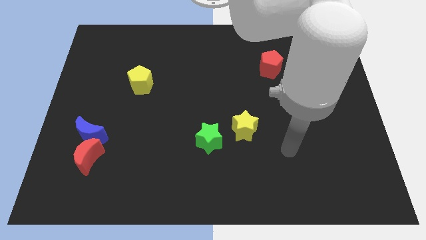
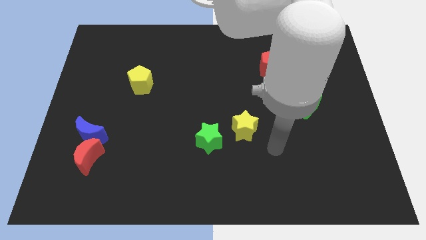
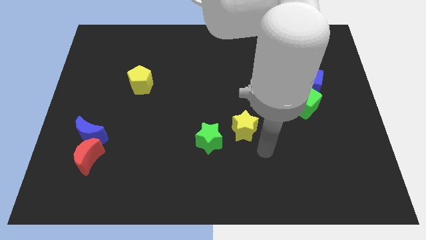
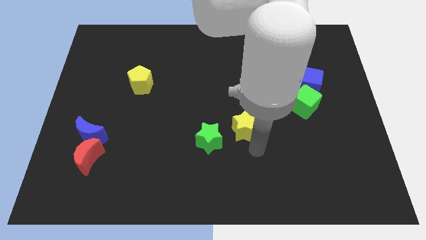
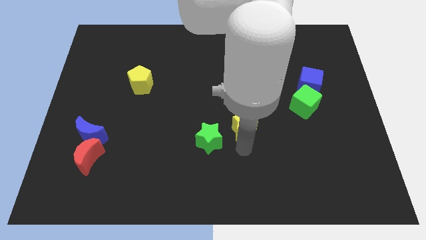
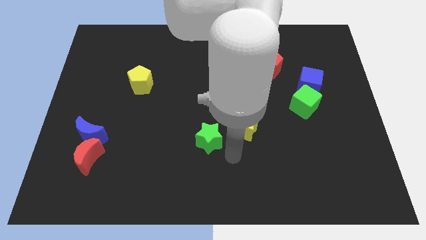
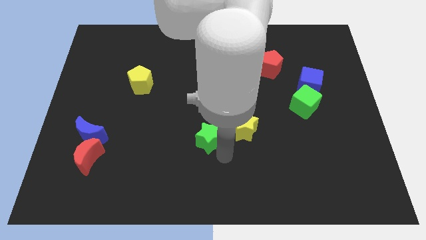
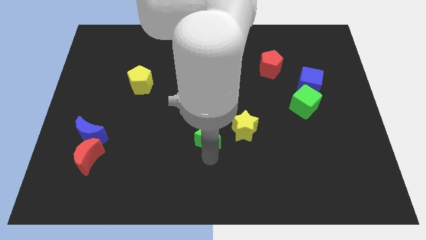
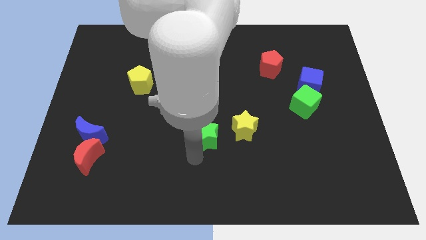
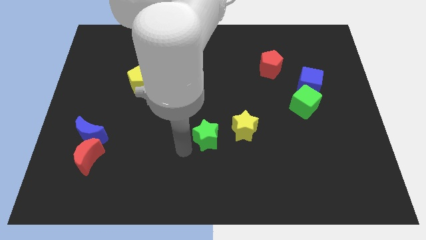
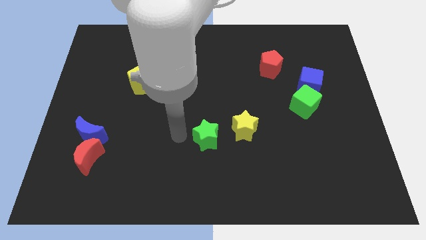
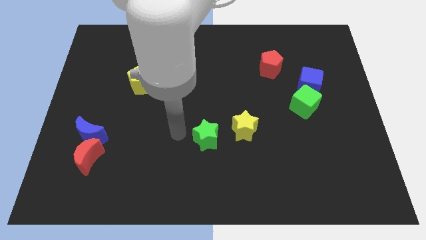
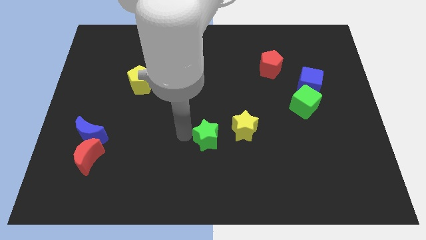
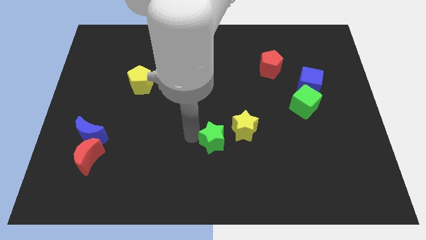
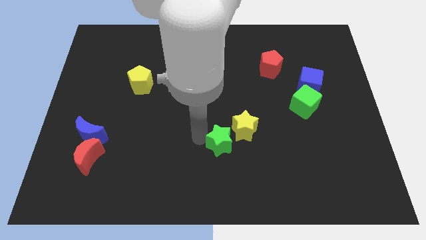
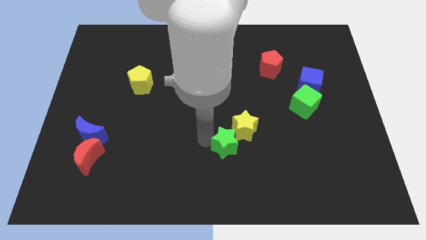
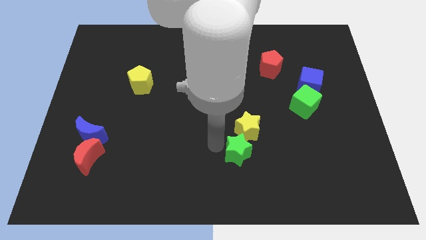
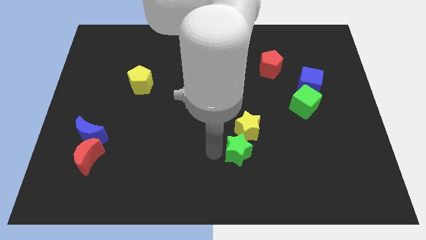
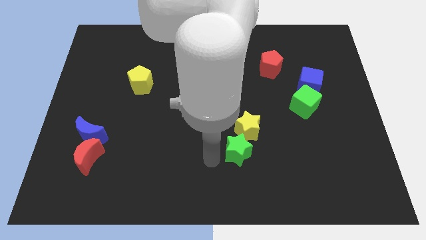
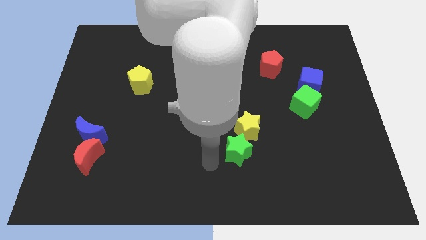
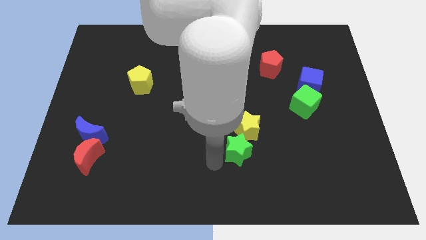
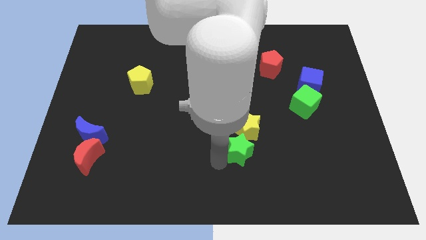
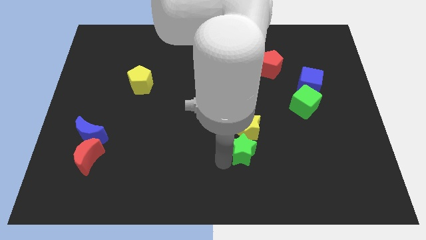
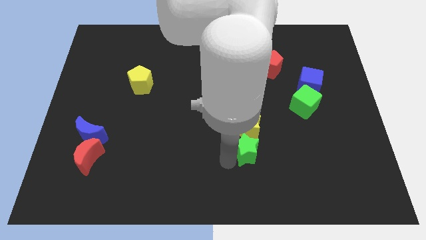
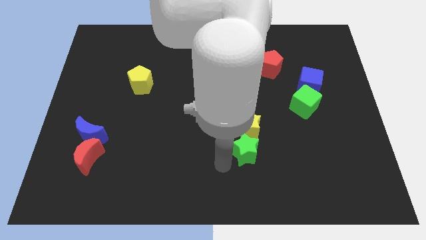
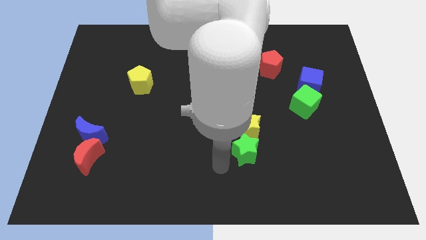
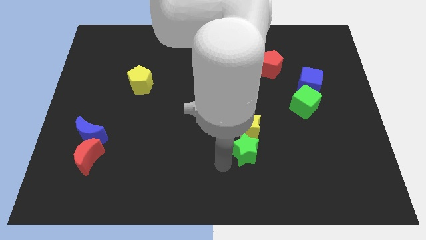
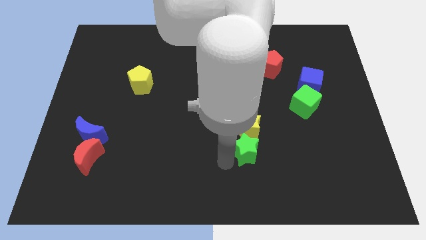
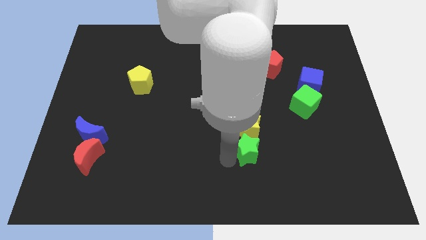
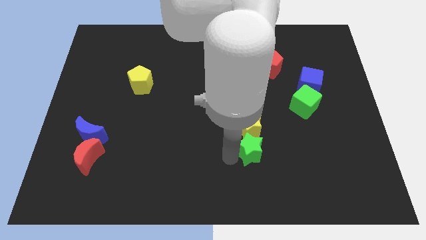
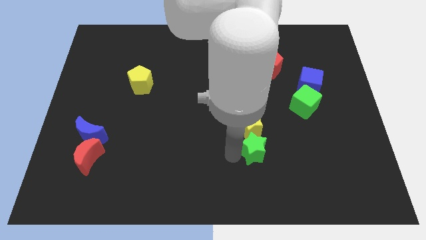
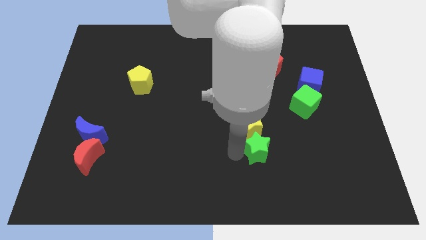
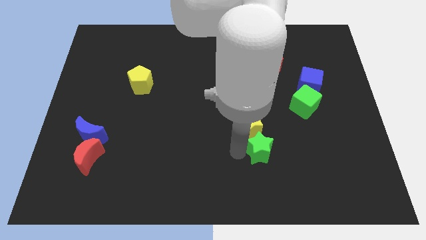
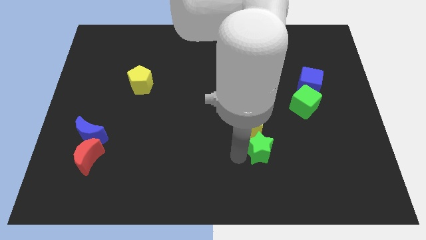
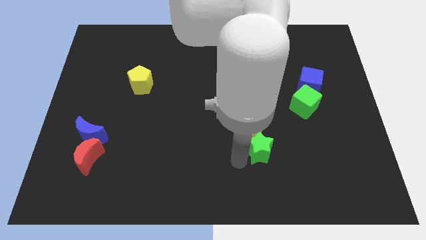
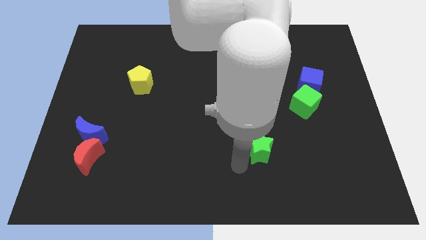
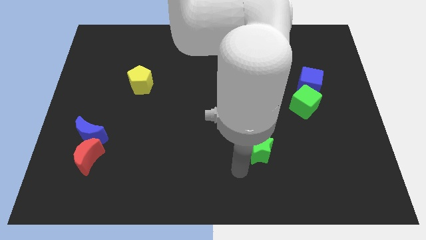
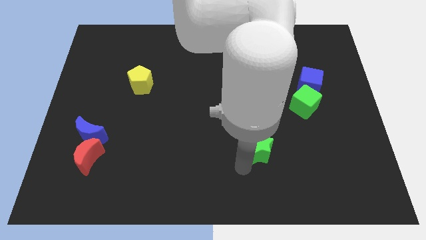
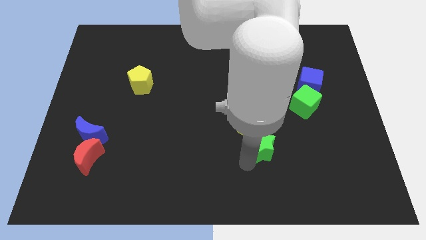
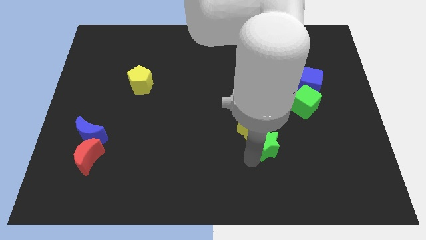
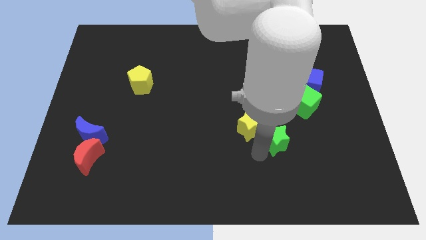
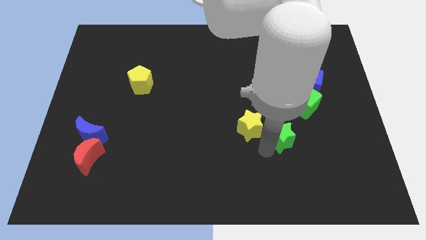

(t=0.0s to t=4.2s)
move the green star diagonally down and to the left of the green cube

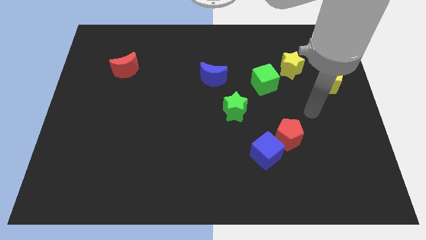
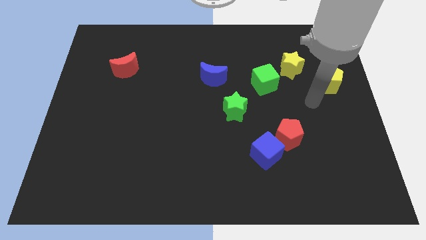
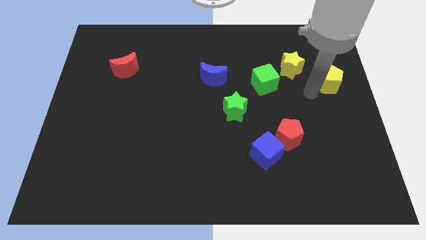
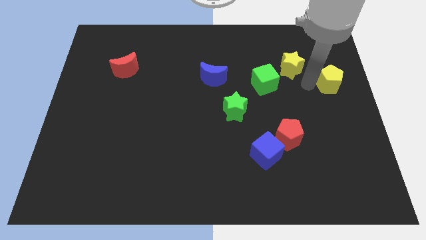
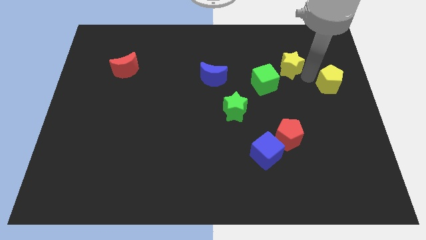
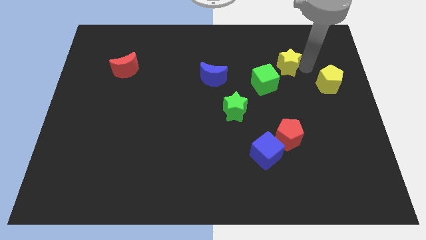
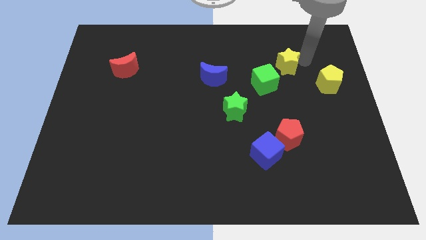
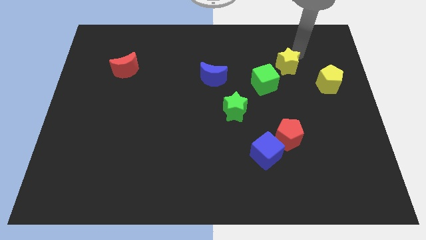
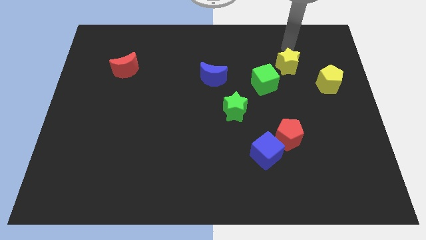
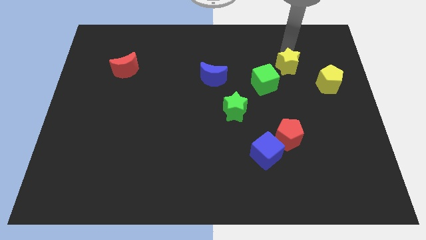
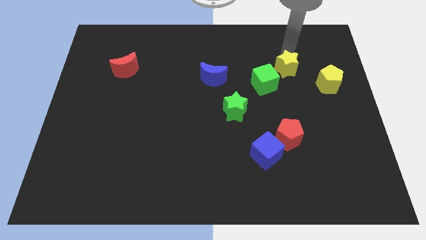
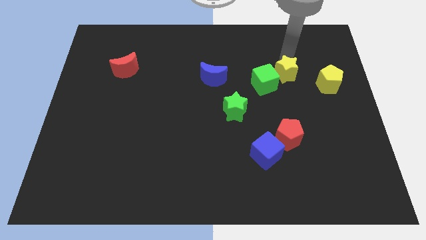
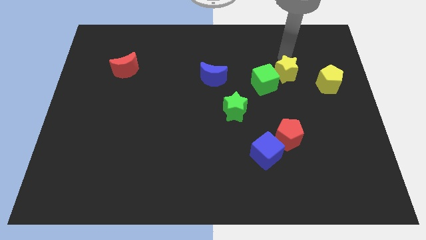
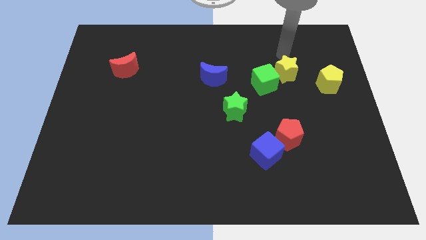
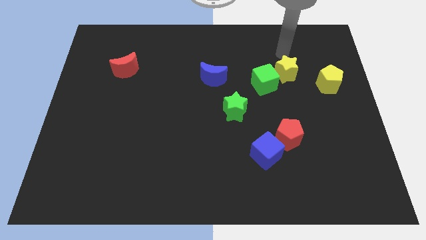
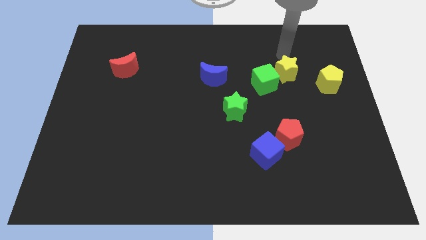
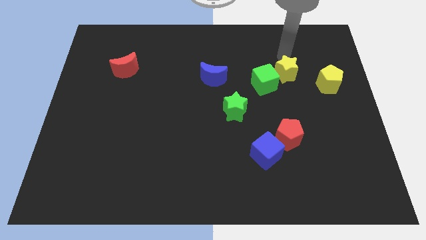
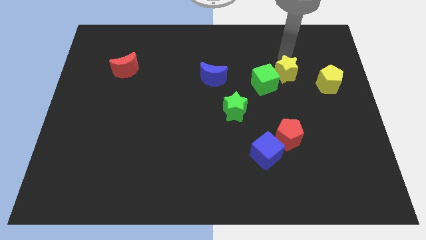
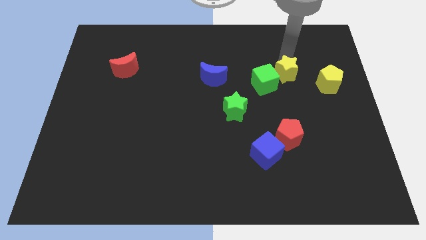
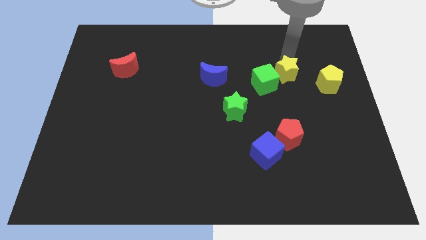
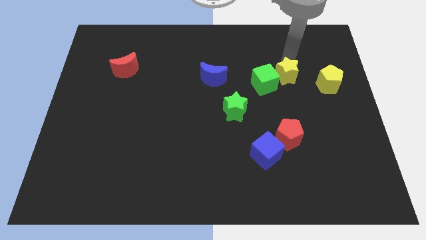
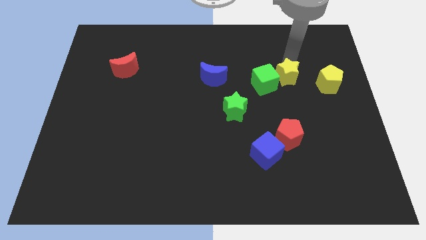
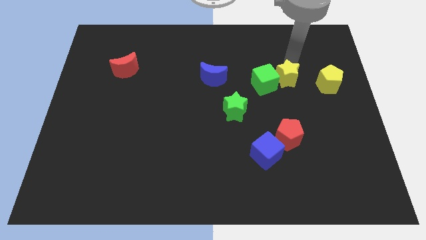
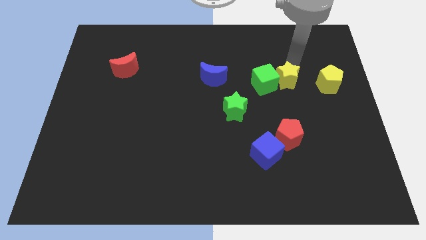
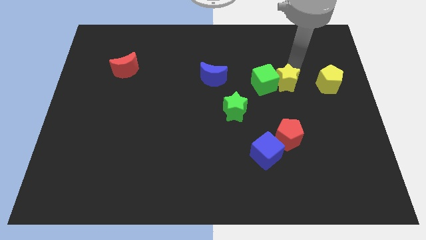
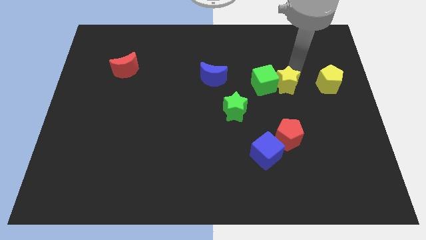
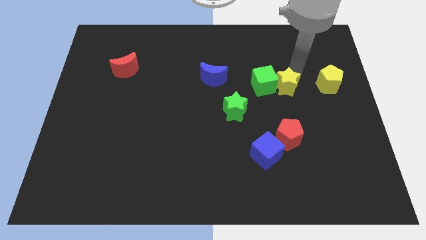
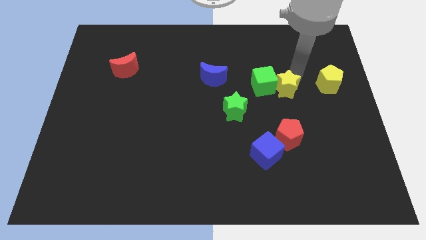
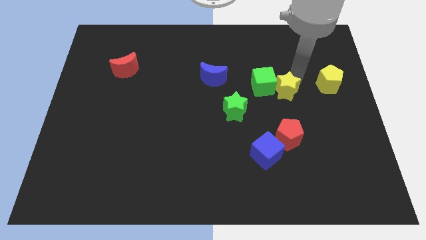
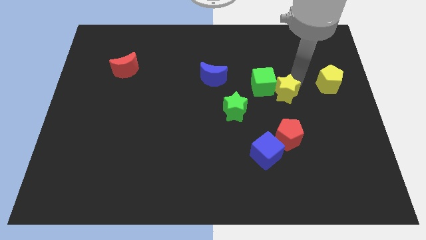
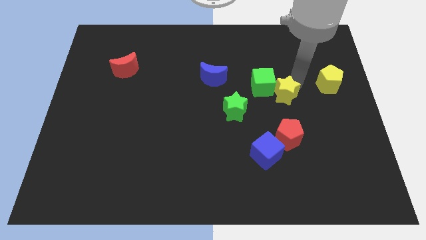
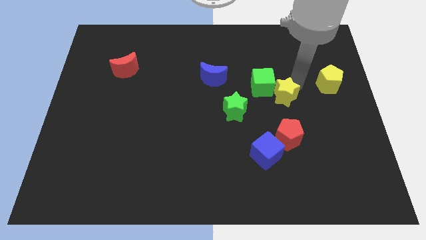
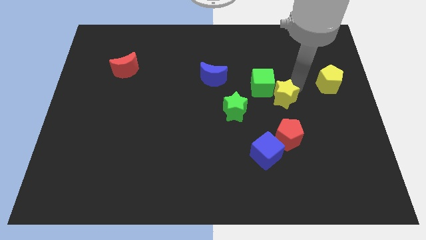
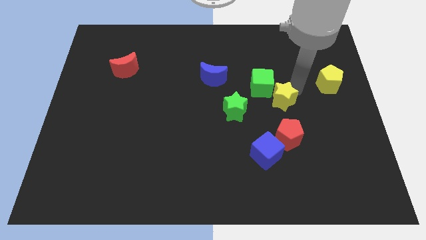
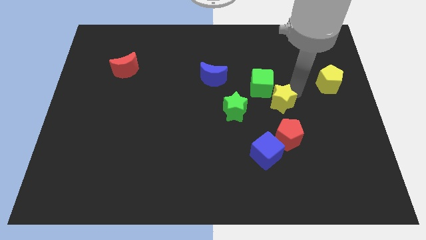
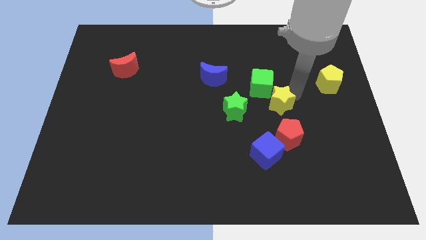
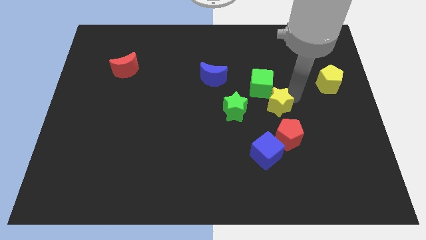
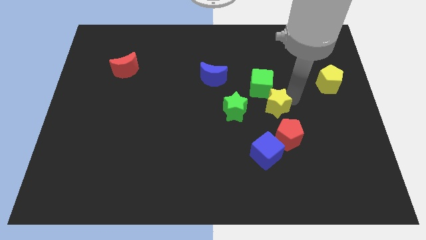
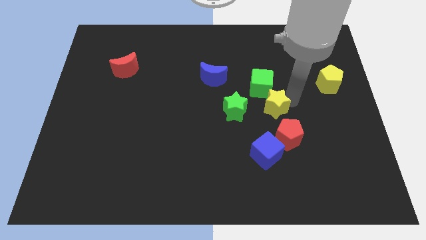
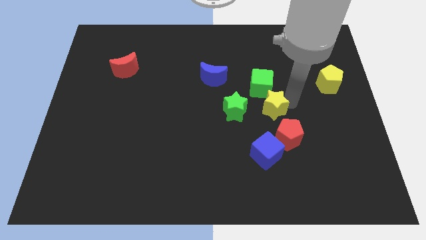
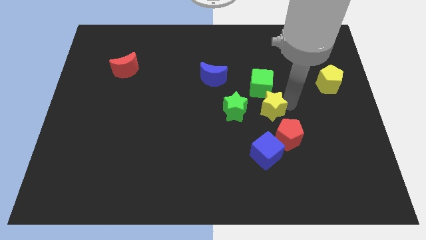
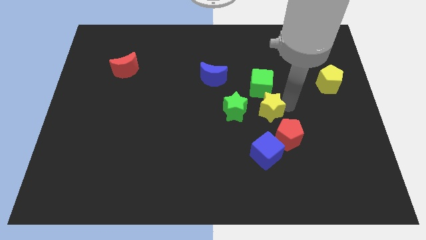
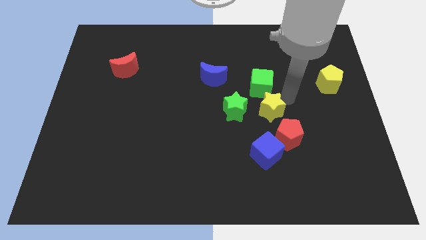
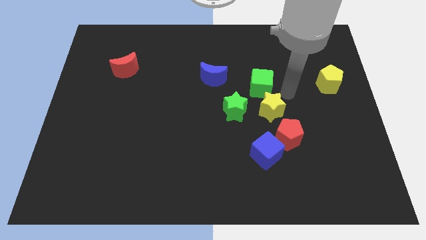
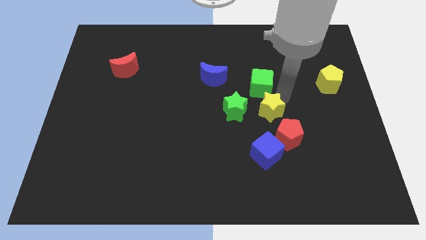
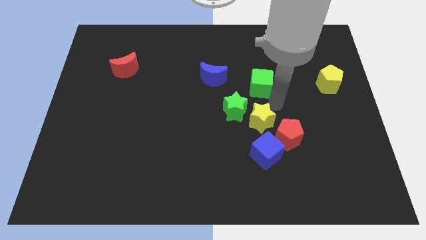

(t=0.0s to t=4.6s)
move the yellow star just left of the red pentagon
